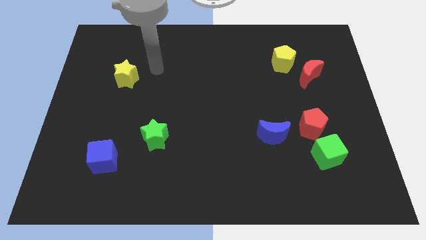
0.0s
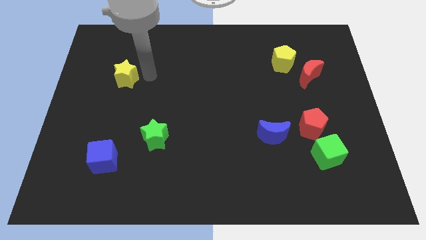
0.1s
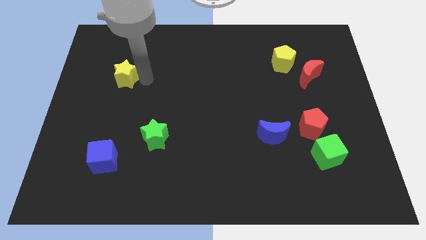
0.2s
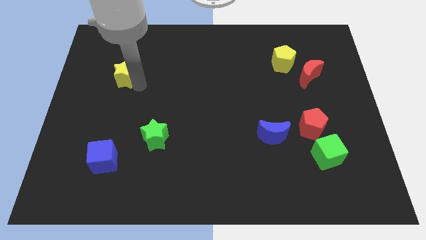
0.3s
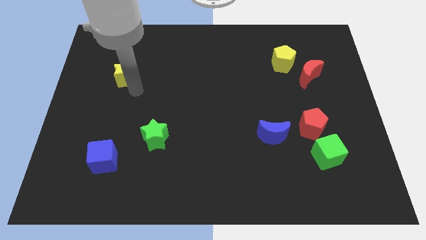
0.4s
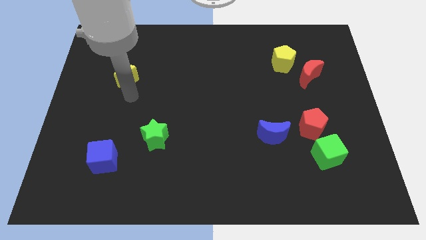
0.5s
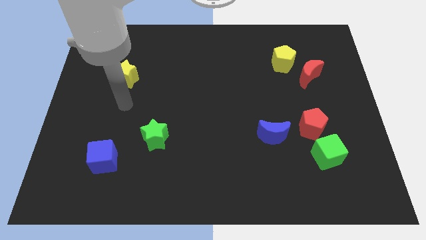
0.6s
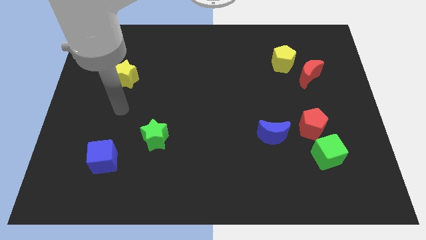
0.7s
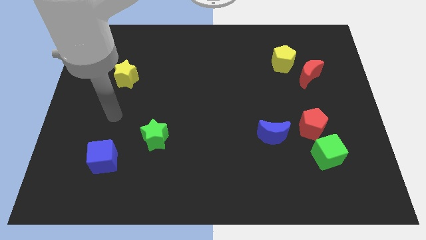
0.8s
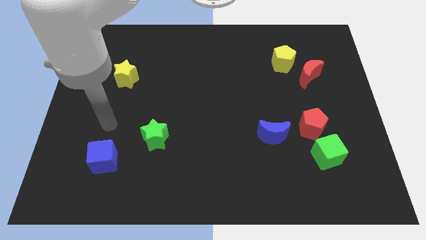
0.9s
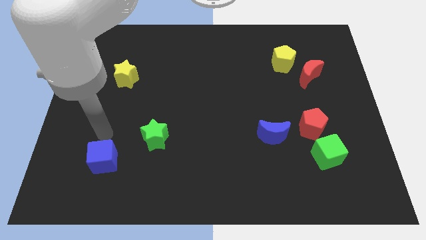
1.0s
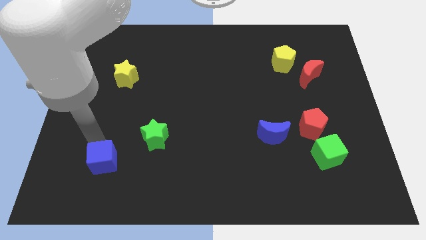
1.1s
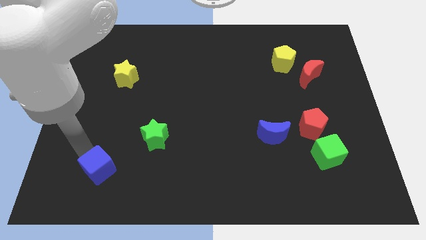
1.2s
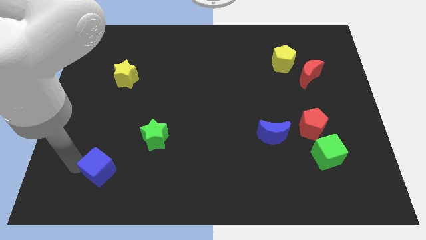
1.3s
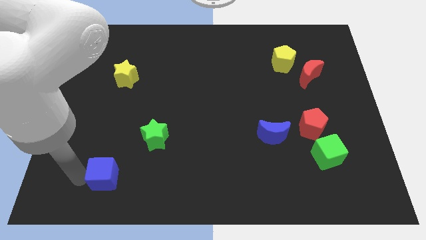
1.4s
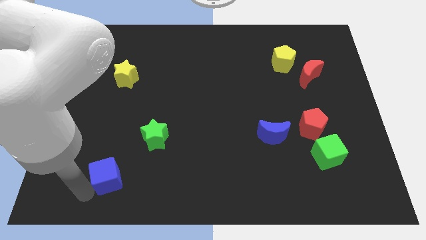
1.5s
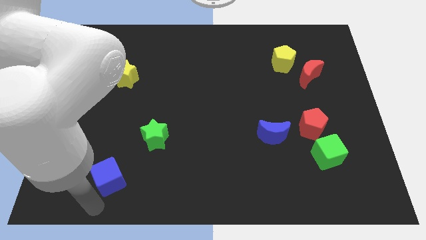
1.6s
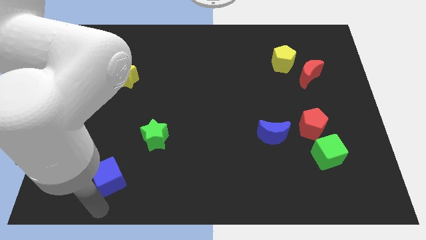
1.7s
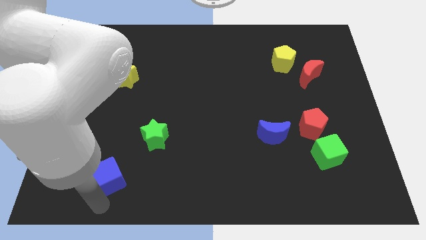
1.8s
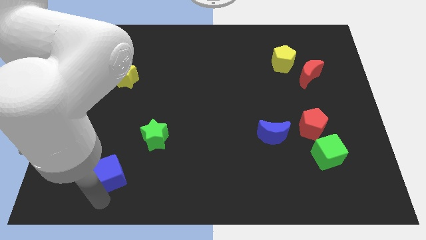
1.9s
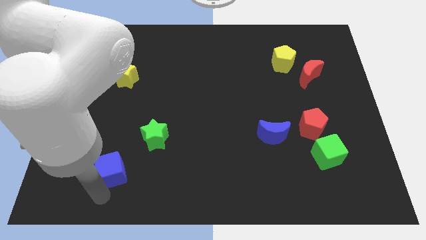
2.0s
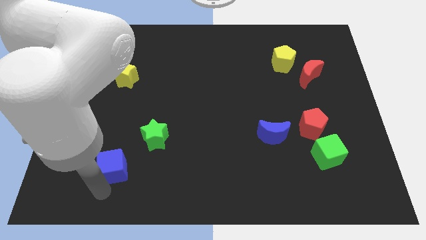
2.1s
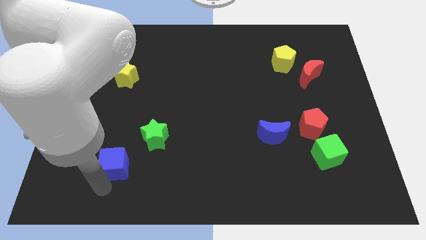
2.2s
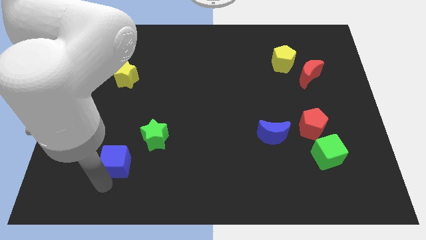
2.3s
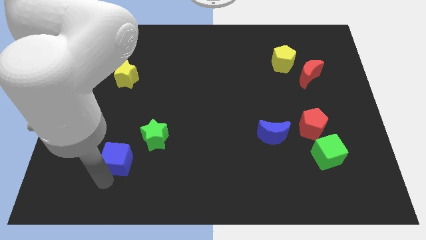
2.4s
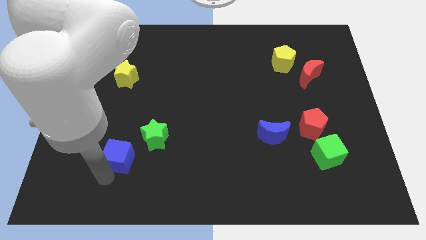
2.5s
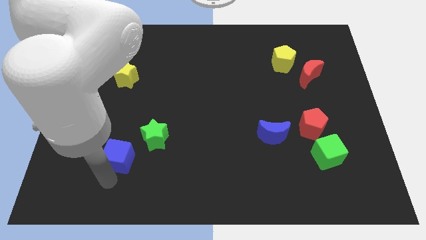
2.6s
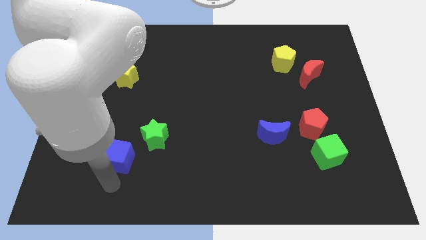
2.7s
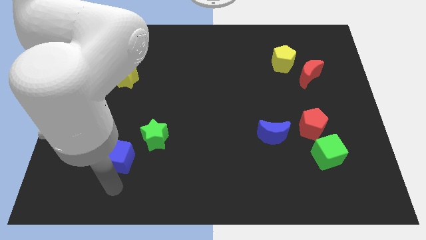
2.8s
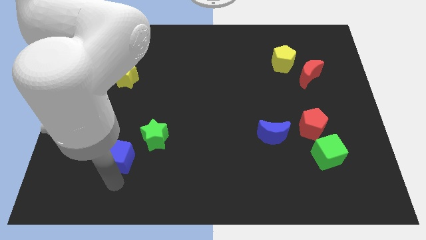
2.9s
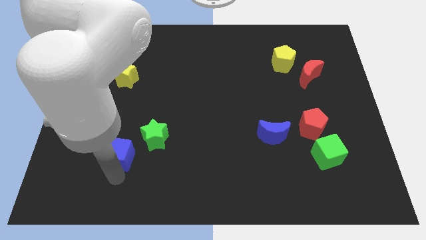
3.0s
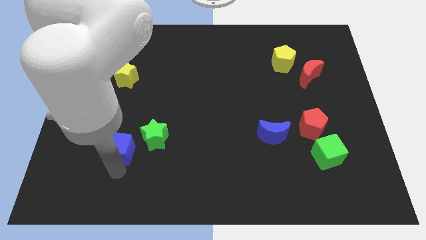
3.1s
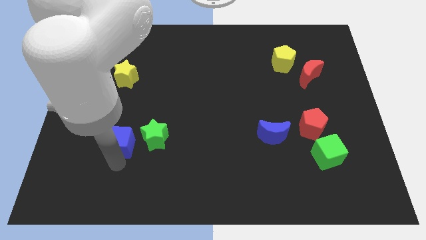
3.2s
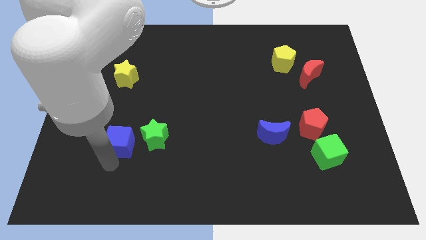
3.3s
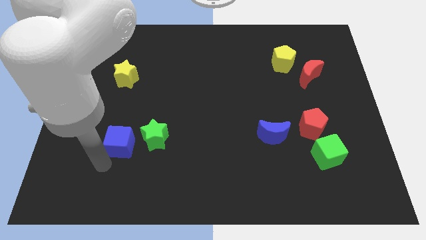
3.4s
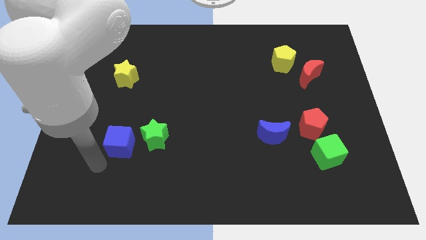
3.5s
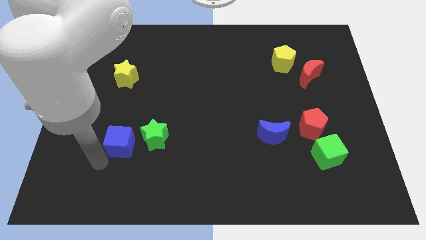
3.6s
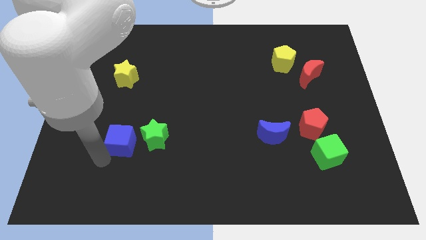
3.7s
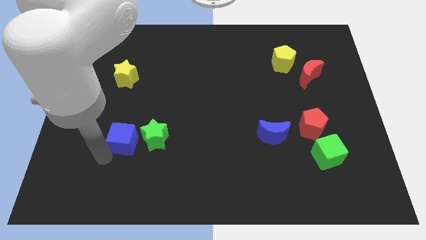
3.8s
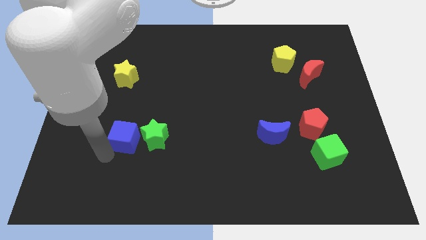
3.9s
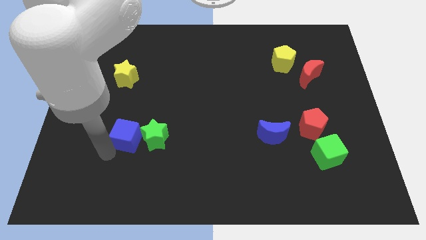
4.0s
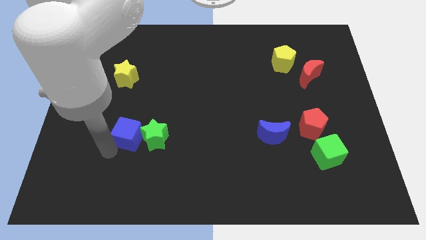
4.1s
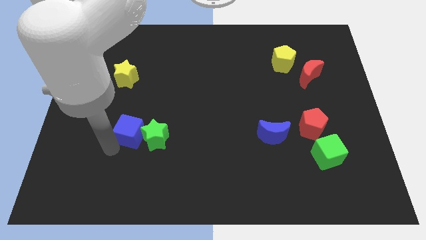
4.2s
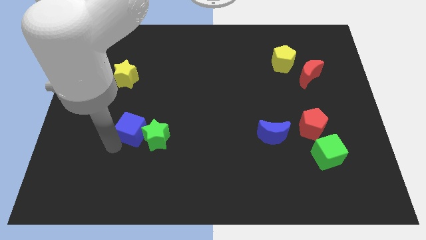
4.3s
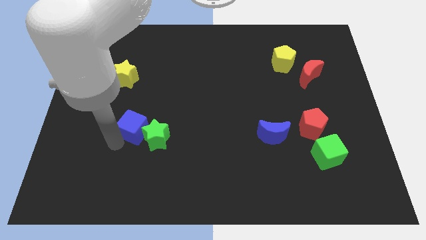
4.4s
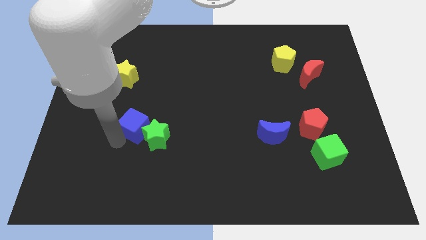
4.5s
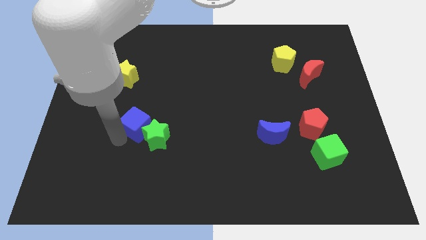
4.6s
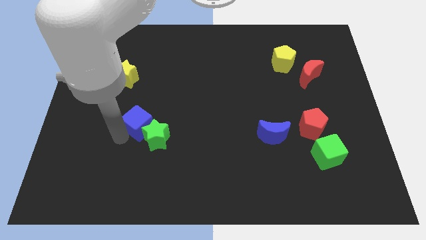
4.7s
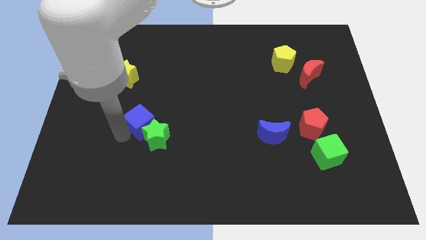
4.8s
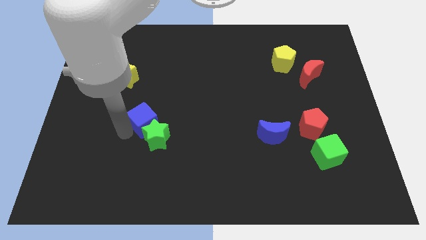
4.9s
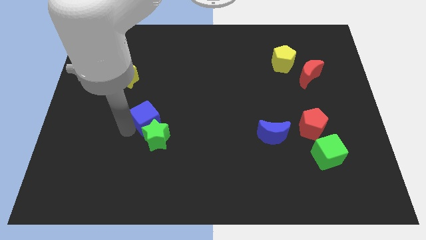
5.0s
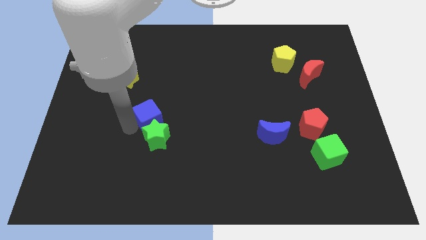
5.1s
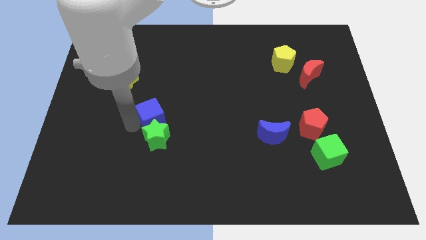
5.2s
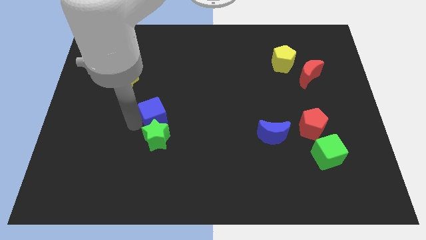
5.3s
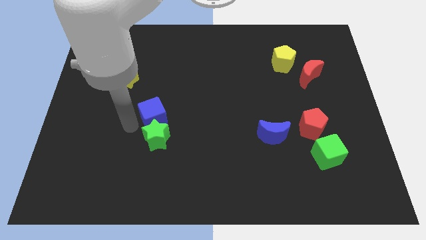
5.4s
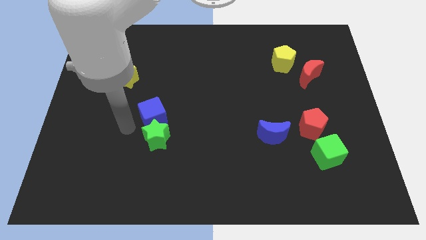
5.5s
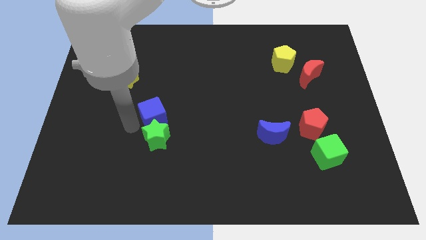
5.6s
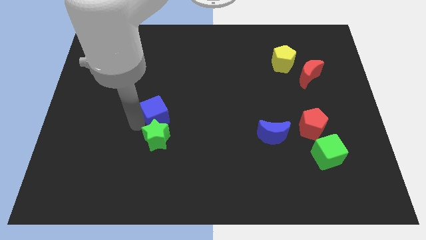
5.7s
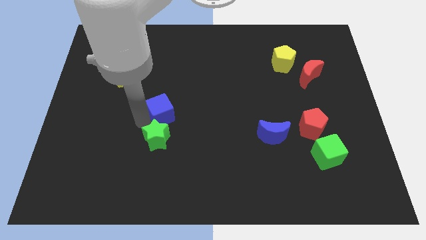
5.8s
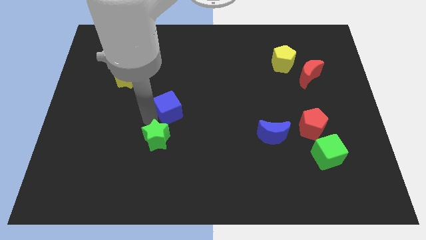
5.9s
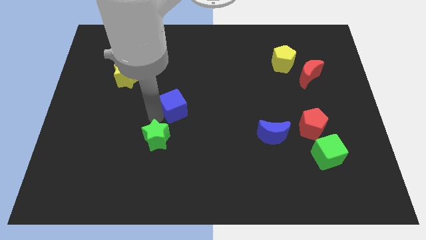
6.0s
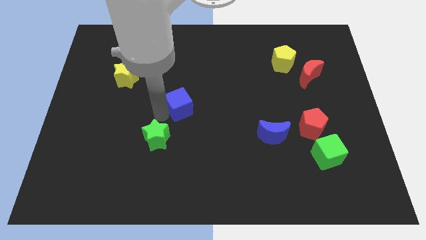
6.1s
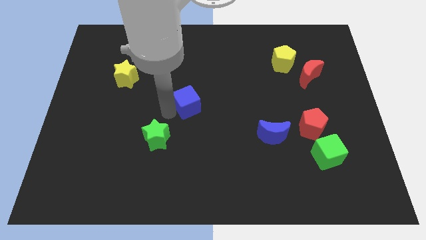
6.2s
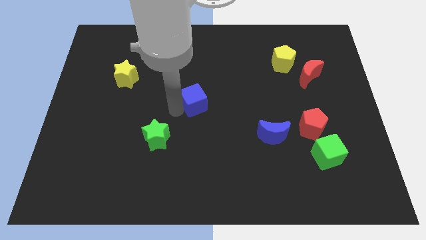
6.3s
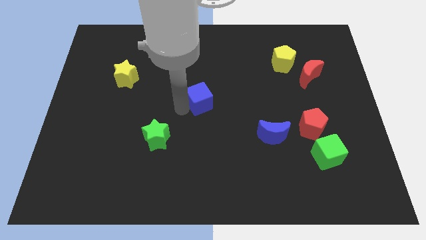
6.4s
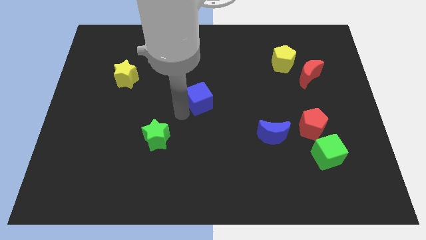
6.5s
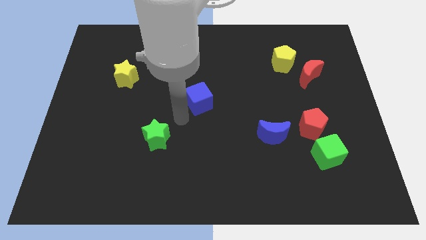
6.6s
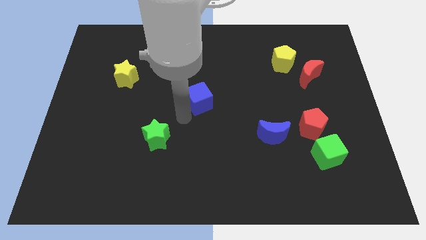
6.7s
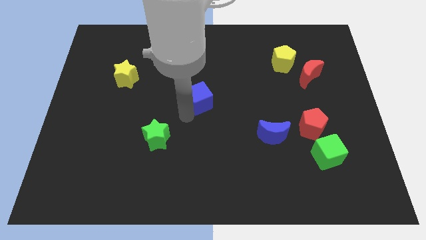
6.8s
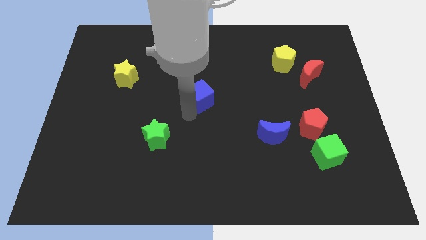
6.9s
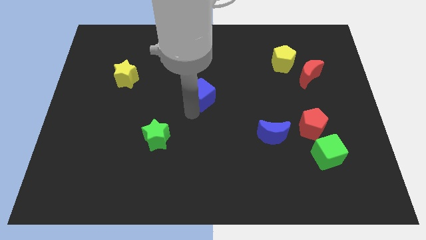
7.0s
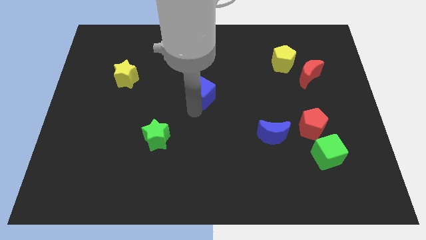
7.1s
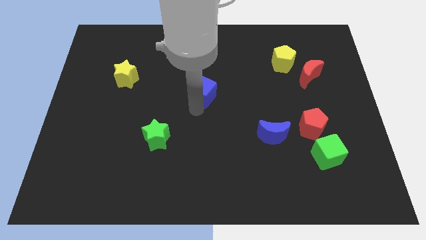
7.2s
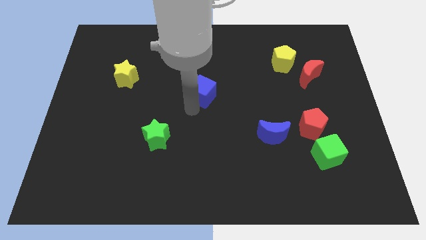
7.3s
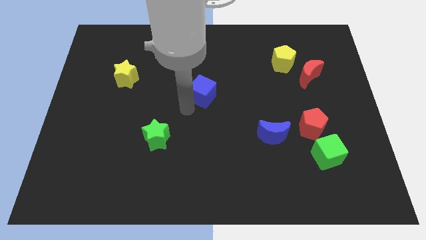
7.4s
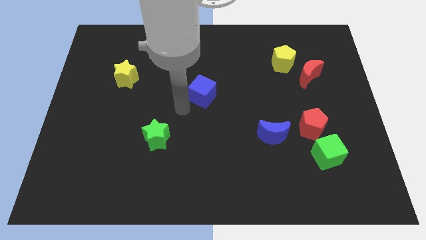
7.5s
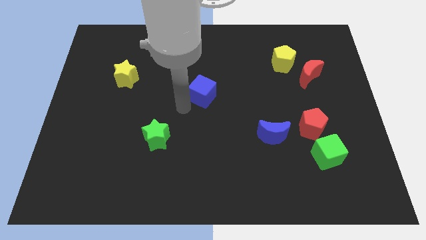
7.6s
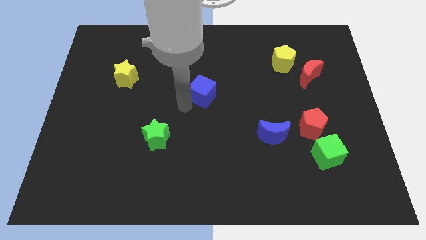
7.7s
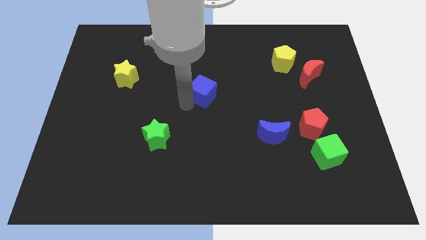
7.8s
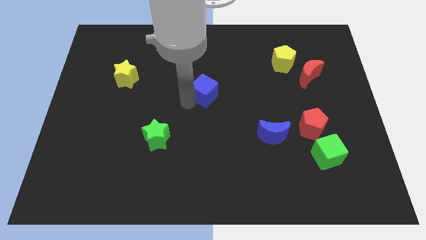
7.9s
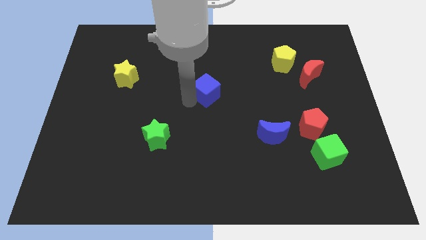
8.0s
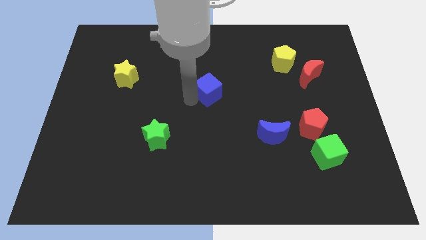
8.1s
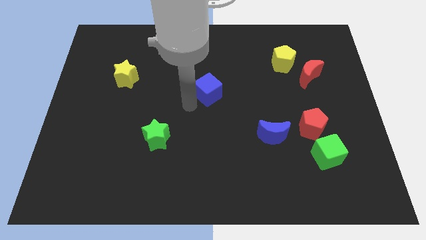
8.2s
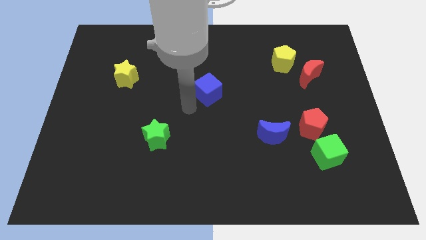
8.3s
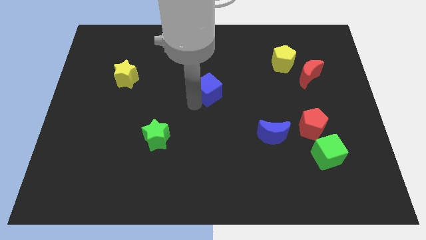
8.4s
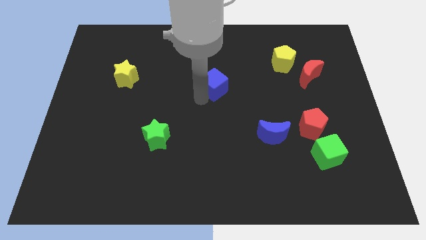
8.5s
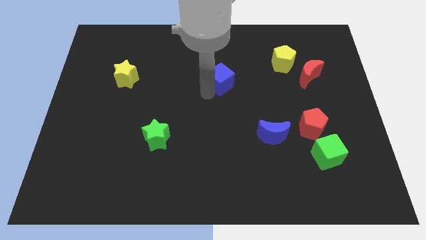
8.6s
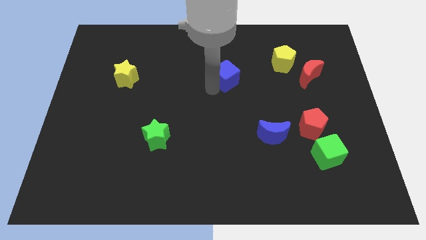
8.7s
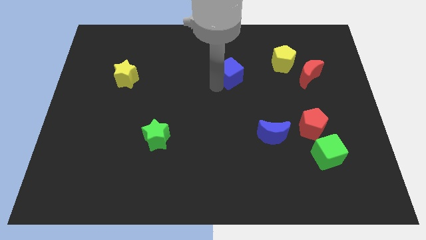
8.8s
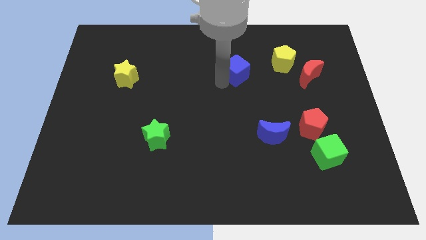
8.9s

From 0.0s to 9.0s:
put the blue cube to the left of the yellow pentagon
